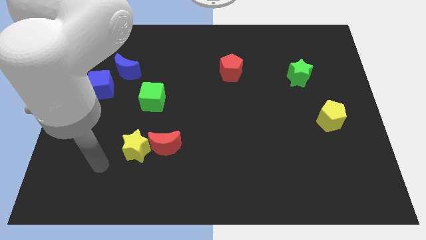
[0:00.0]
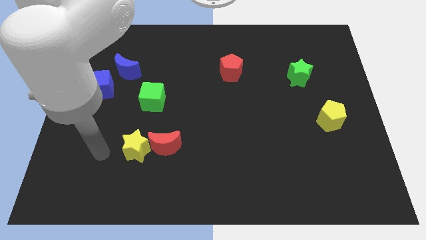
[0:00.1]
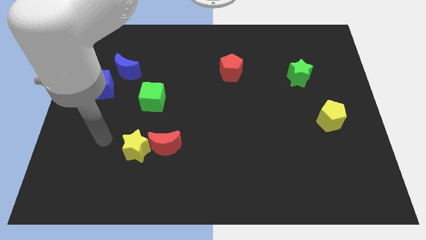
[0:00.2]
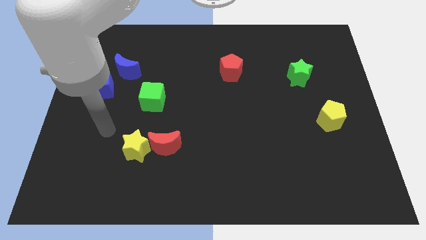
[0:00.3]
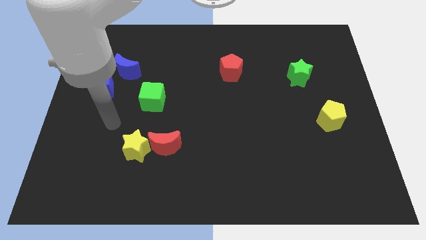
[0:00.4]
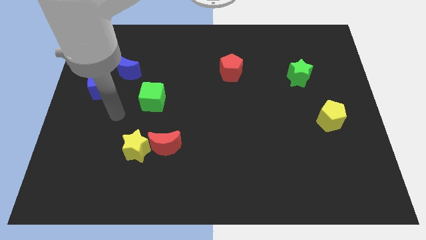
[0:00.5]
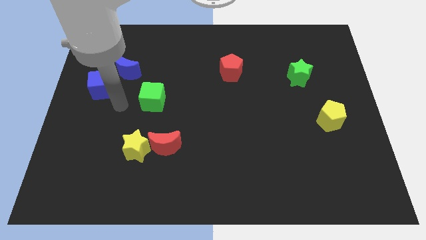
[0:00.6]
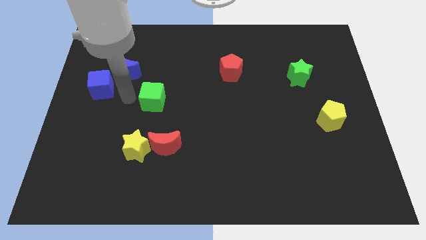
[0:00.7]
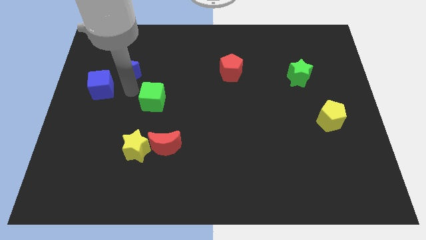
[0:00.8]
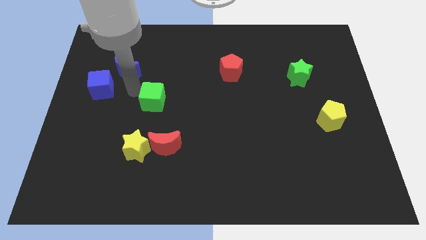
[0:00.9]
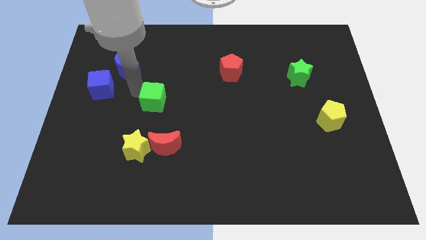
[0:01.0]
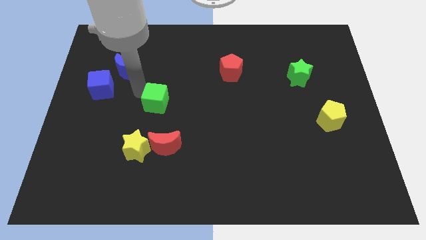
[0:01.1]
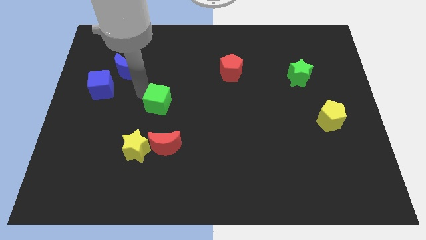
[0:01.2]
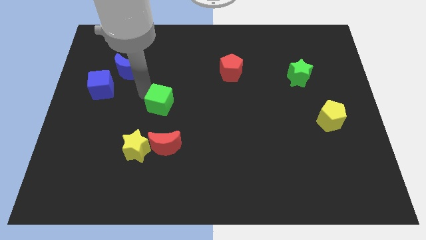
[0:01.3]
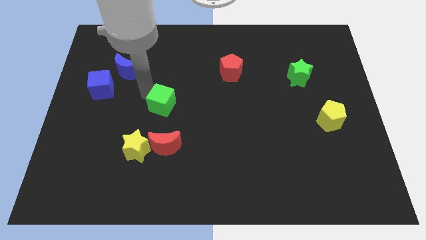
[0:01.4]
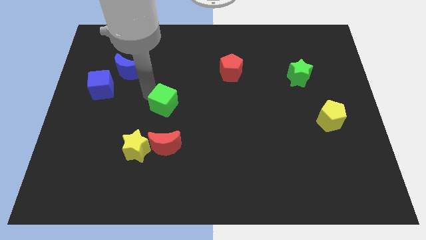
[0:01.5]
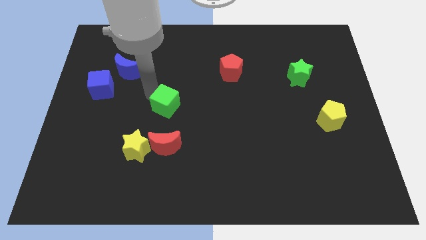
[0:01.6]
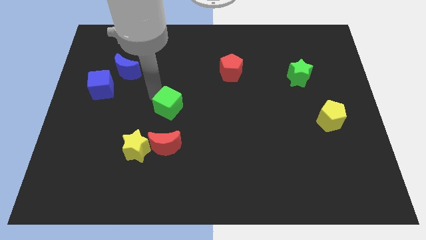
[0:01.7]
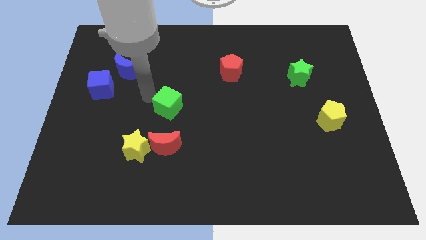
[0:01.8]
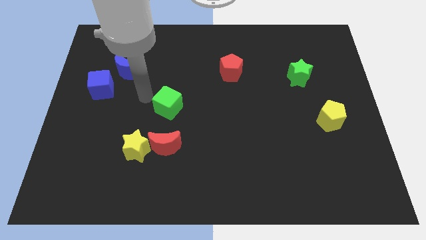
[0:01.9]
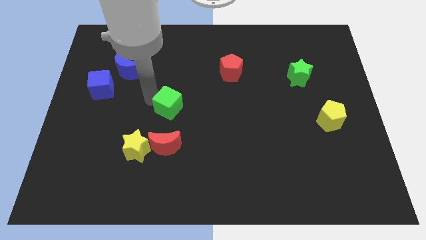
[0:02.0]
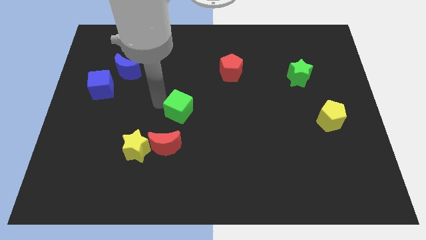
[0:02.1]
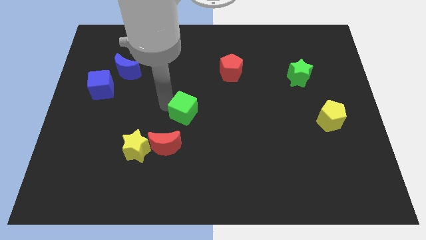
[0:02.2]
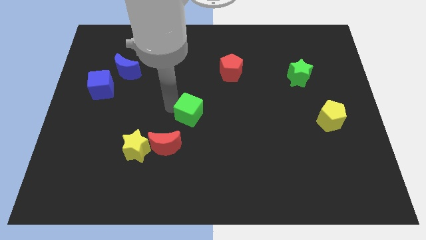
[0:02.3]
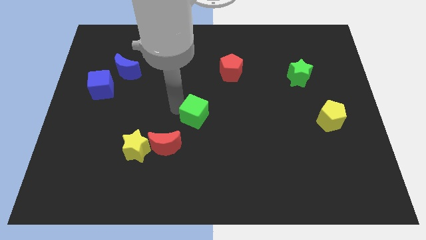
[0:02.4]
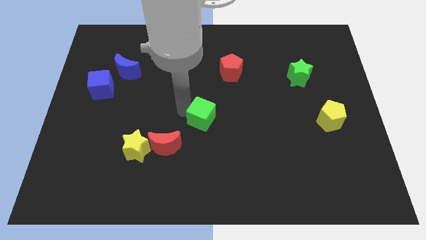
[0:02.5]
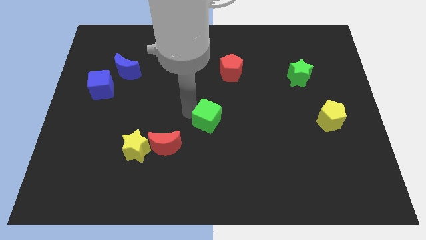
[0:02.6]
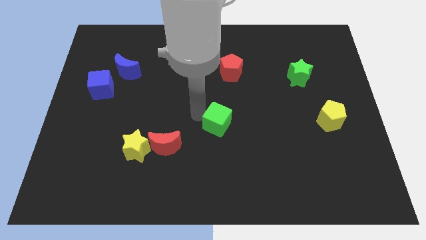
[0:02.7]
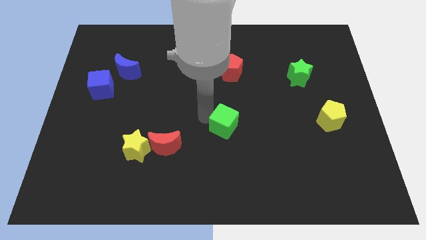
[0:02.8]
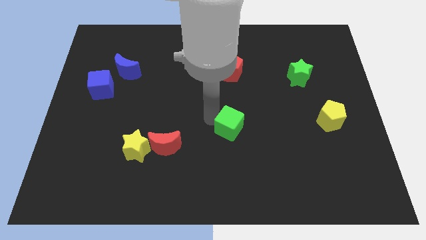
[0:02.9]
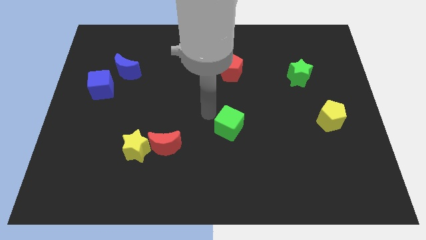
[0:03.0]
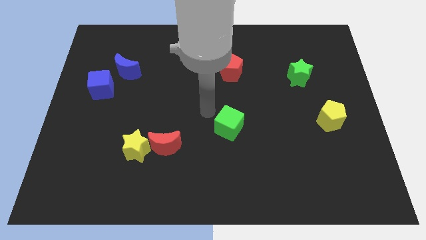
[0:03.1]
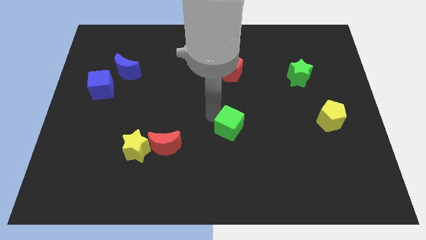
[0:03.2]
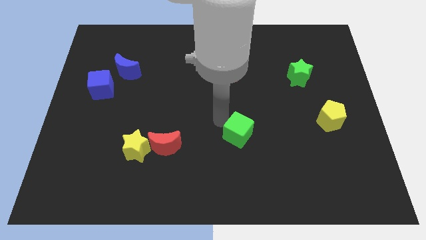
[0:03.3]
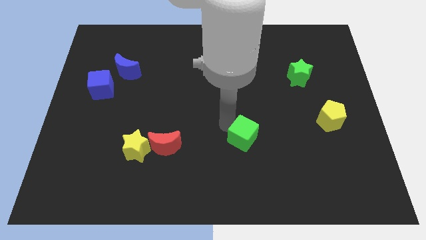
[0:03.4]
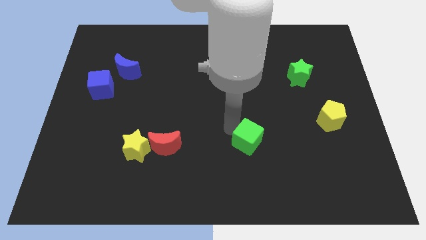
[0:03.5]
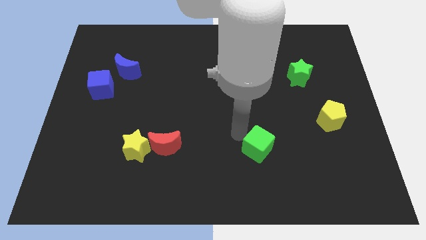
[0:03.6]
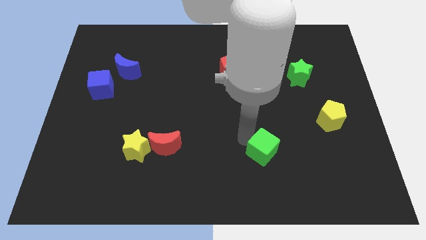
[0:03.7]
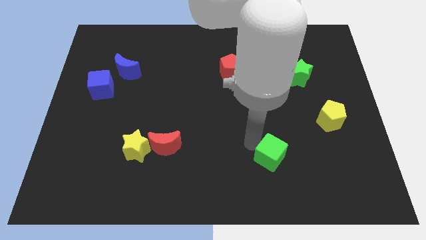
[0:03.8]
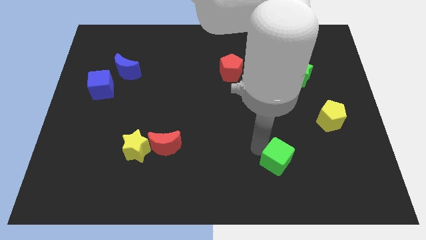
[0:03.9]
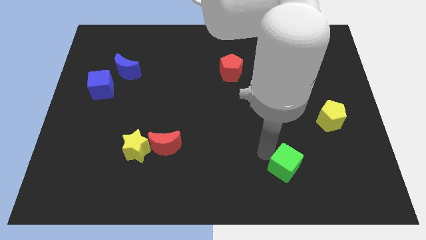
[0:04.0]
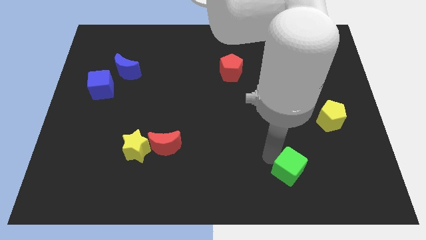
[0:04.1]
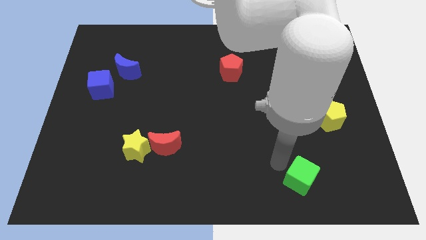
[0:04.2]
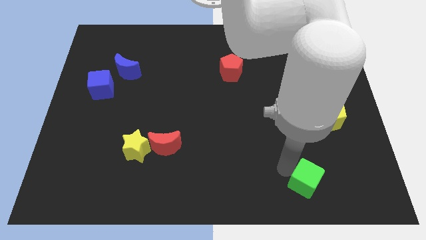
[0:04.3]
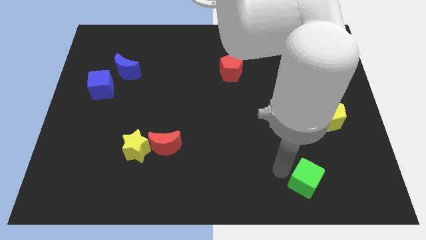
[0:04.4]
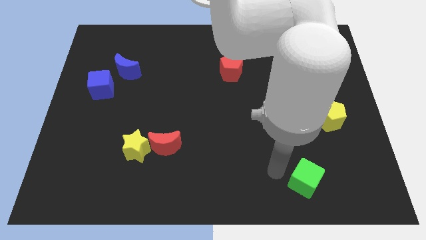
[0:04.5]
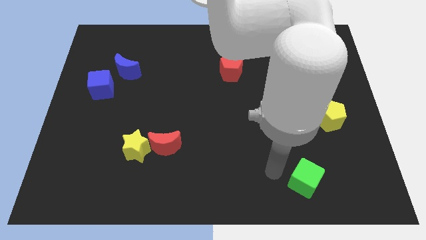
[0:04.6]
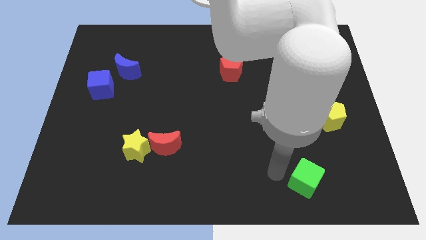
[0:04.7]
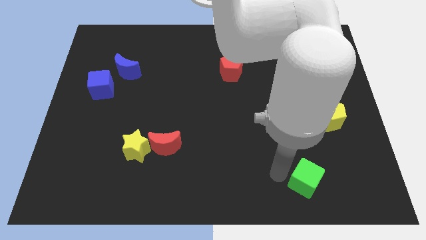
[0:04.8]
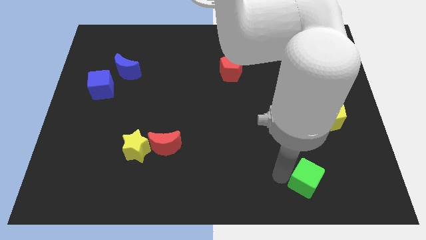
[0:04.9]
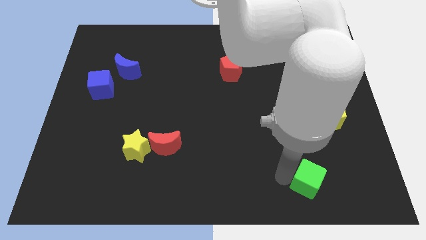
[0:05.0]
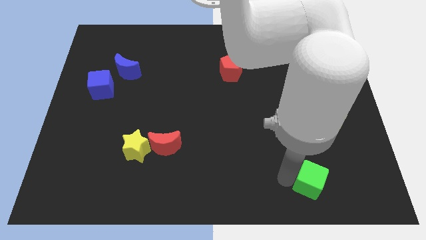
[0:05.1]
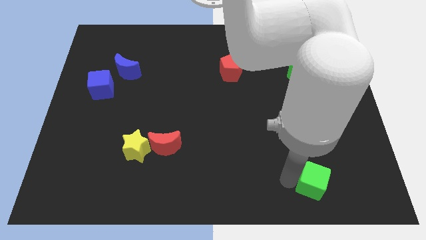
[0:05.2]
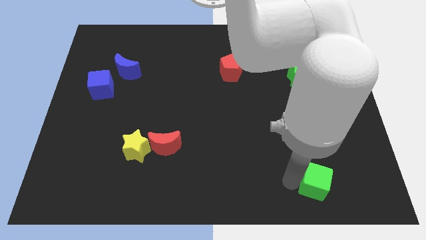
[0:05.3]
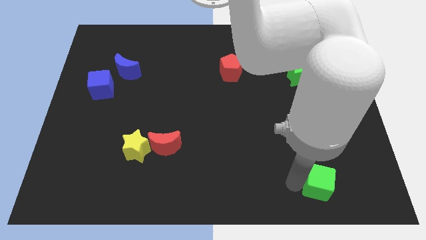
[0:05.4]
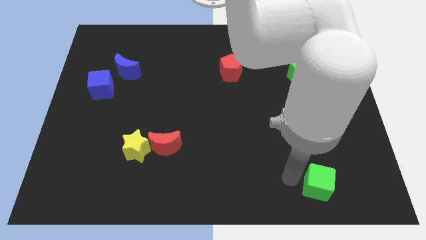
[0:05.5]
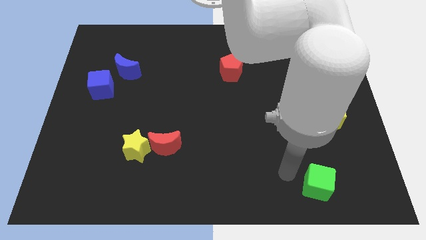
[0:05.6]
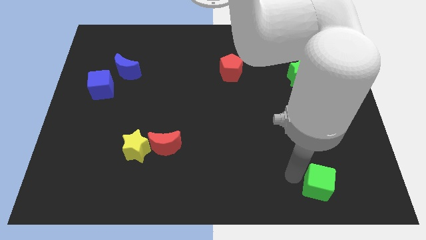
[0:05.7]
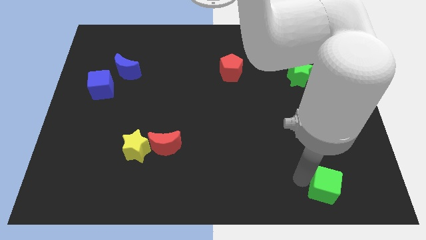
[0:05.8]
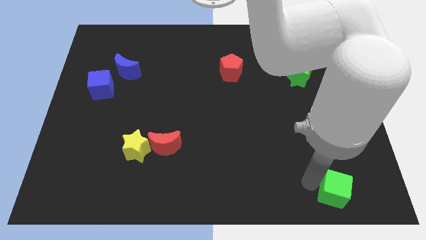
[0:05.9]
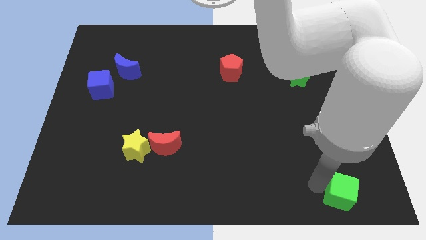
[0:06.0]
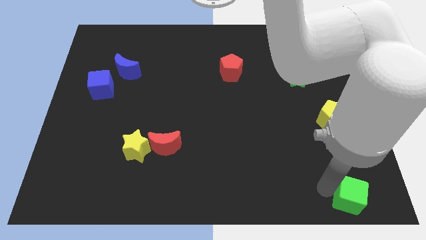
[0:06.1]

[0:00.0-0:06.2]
put the green cube to the bottom right

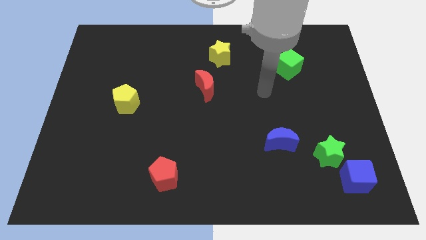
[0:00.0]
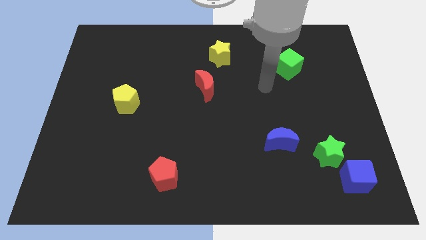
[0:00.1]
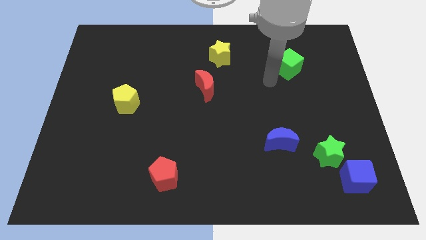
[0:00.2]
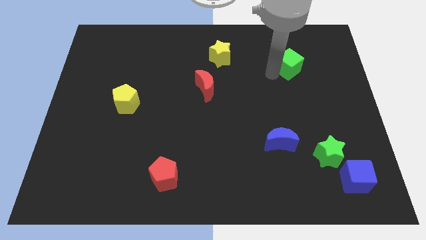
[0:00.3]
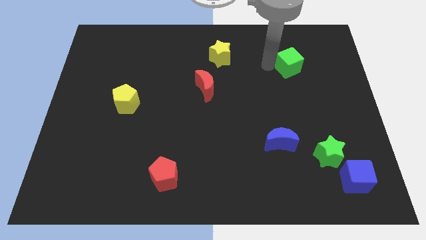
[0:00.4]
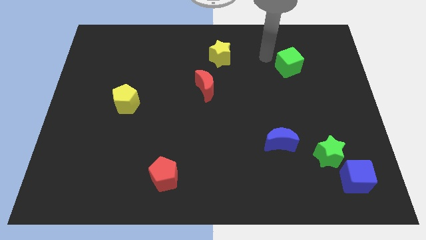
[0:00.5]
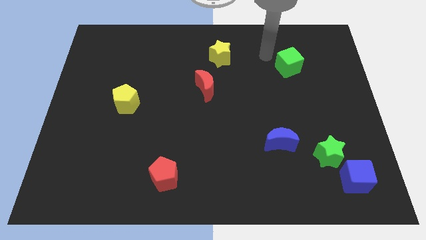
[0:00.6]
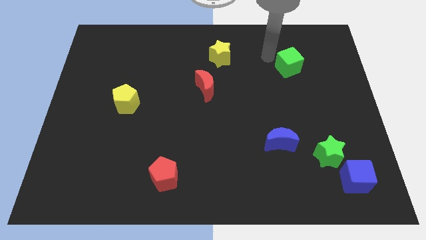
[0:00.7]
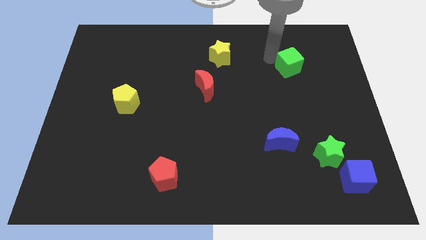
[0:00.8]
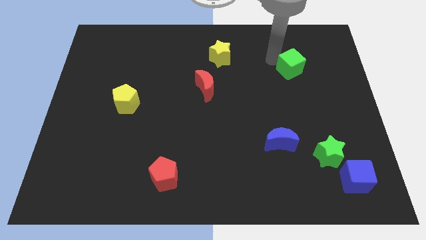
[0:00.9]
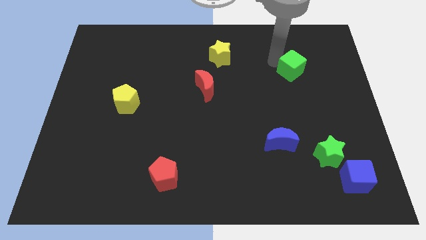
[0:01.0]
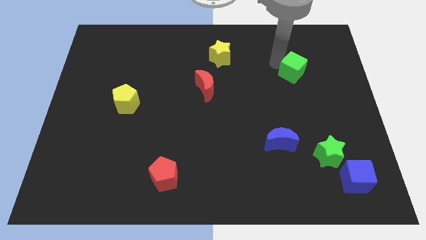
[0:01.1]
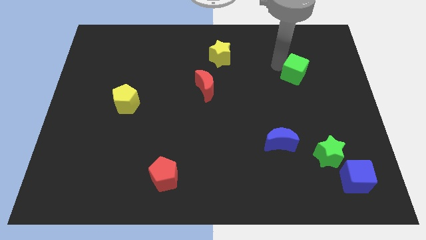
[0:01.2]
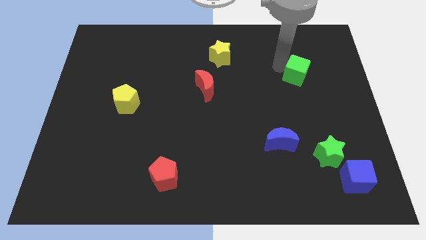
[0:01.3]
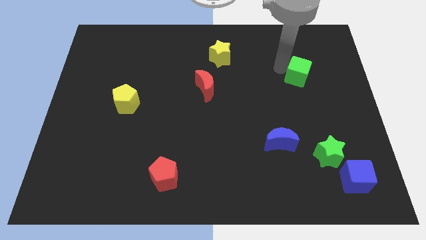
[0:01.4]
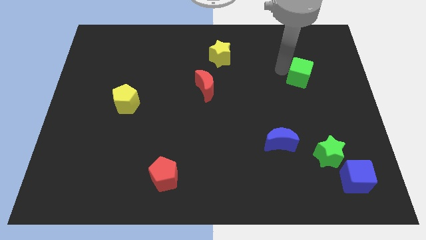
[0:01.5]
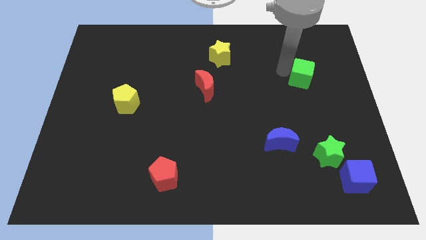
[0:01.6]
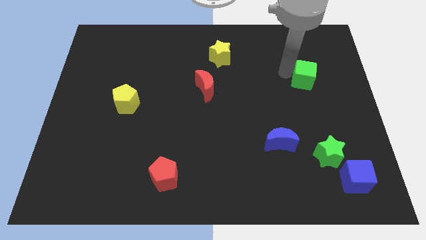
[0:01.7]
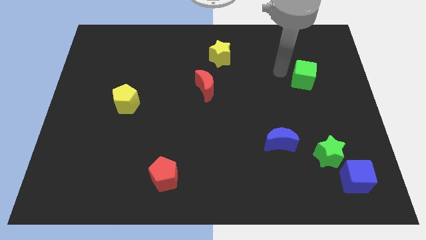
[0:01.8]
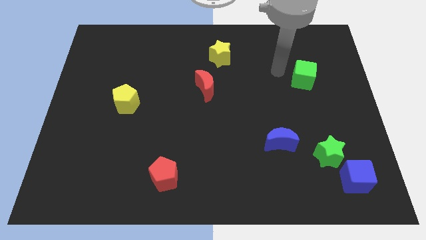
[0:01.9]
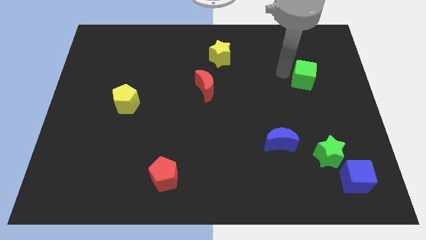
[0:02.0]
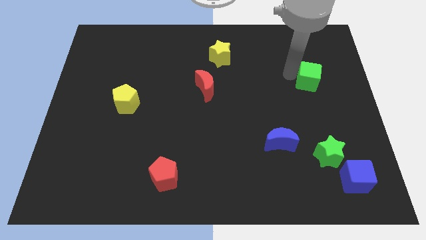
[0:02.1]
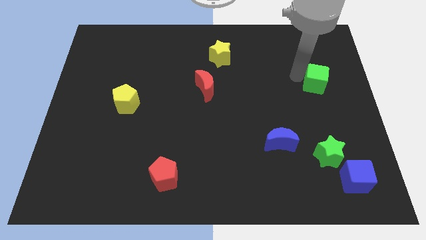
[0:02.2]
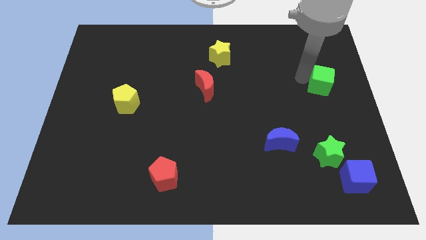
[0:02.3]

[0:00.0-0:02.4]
move the green cube to the center right
